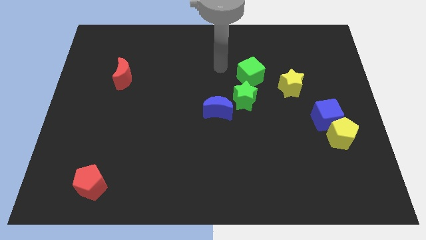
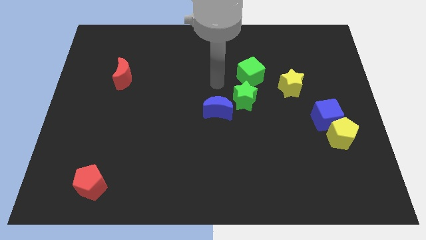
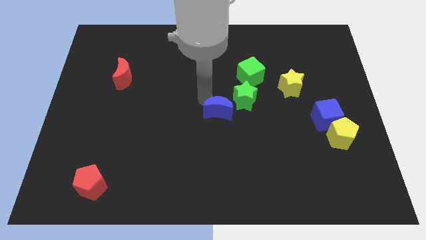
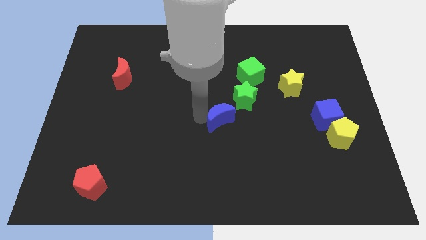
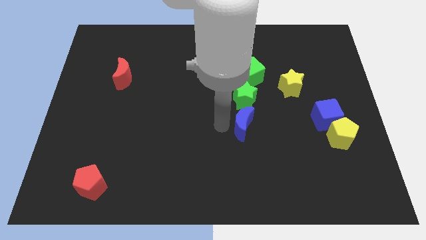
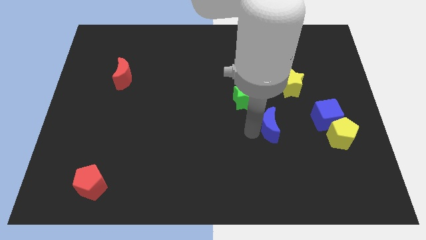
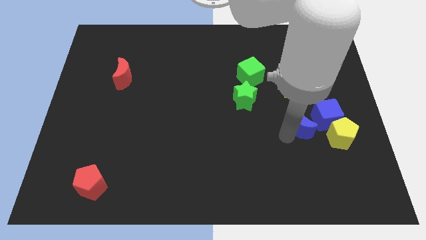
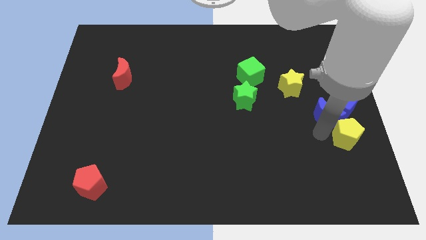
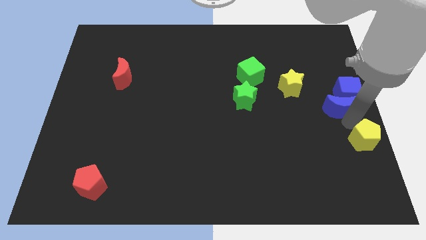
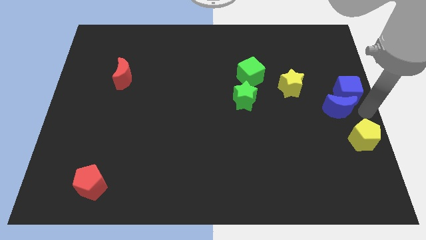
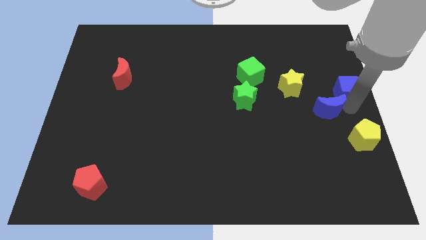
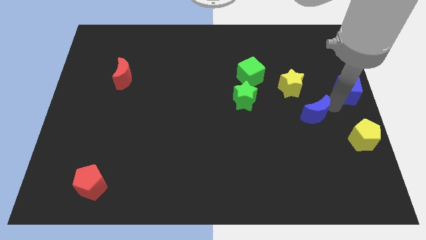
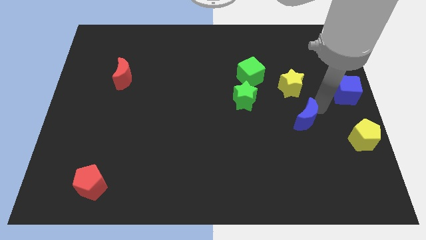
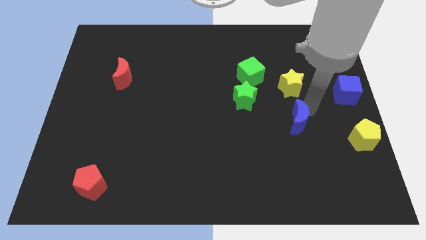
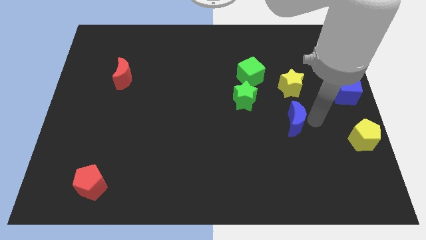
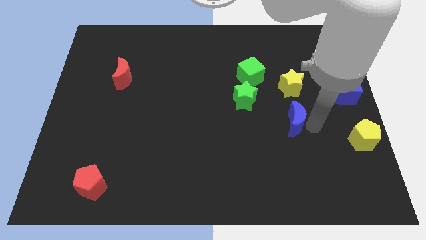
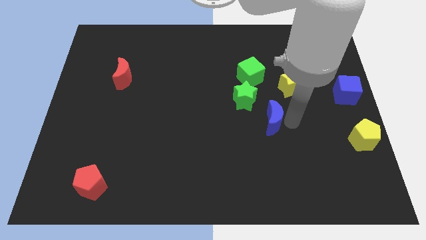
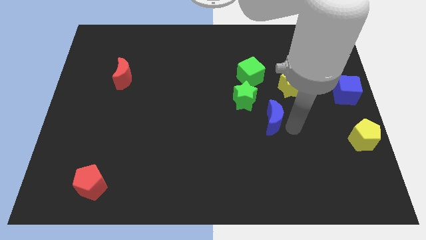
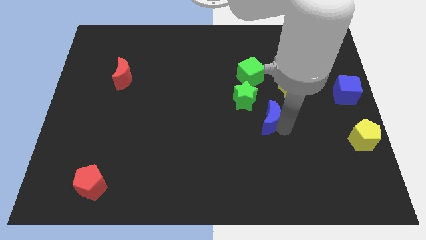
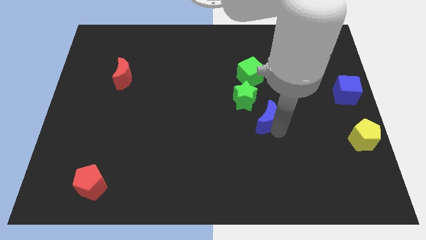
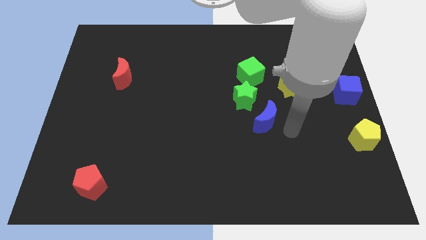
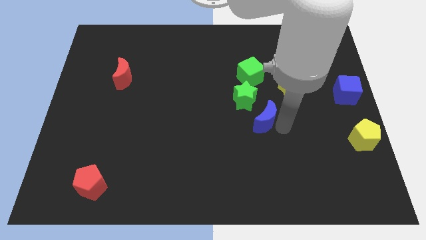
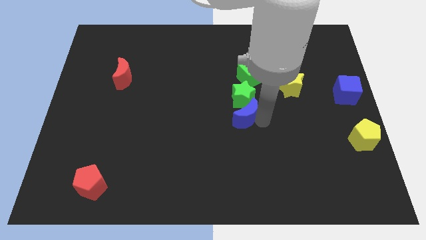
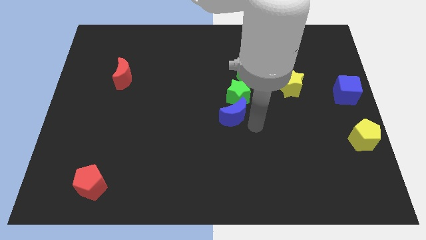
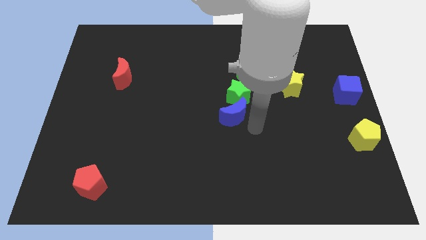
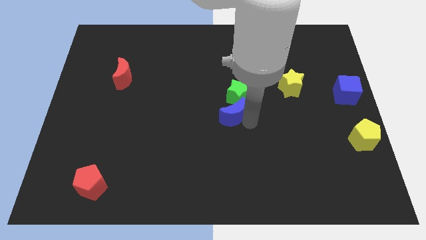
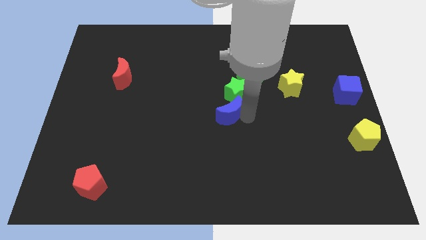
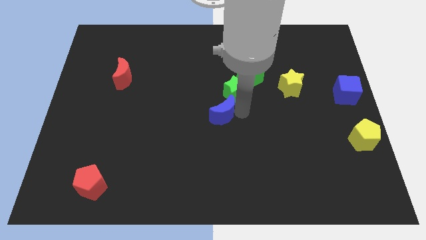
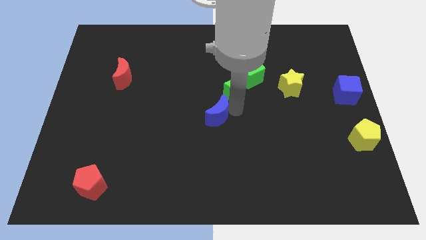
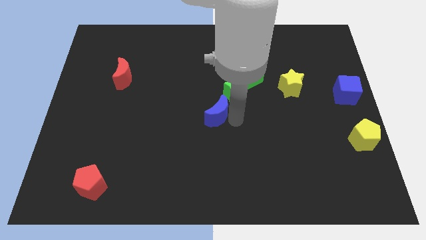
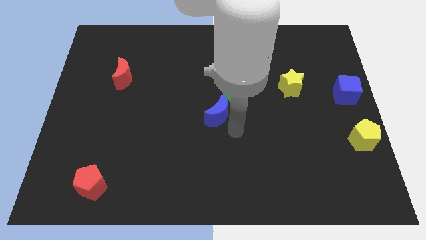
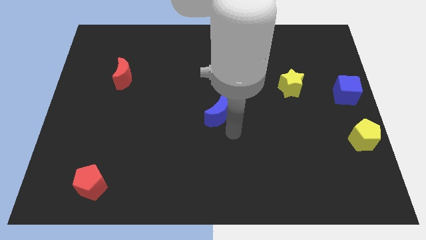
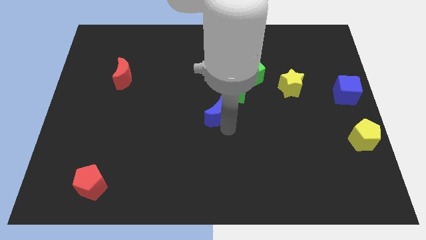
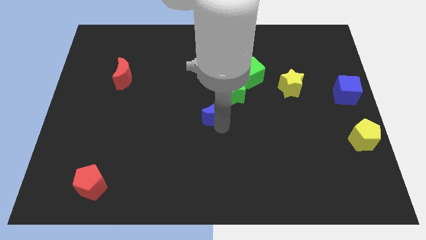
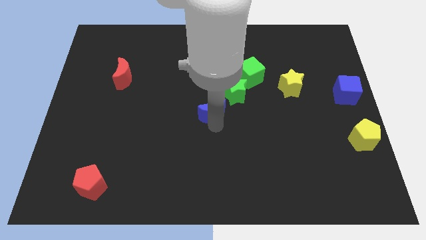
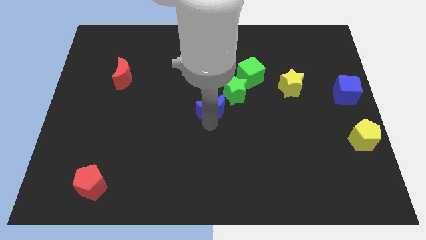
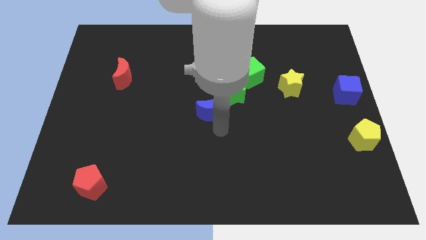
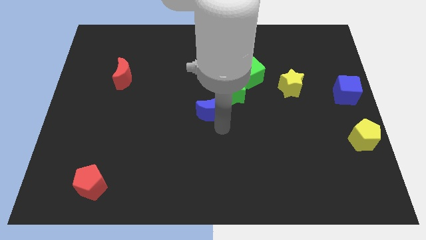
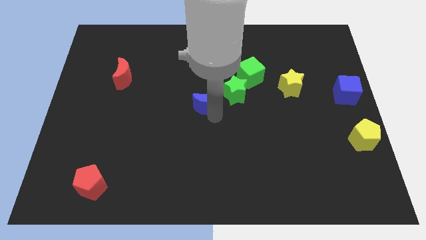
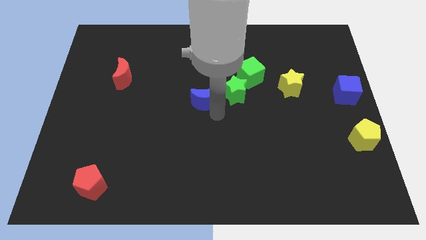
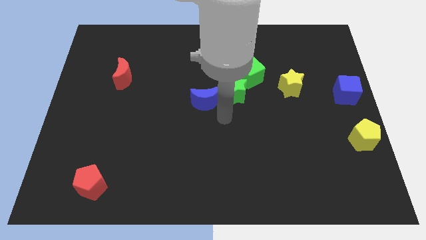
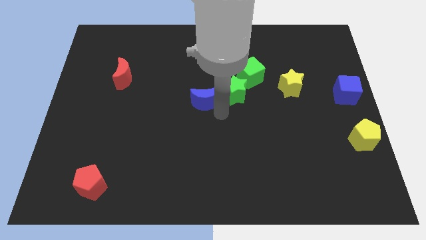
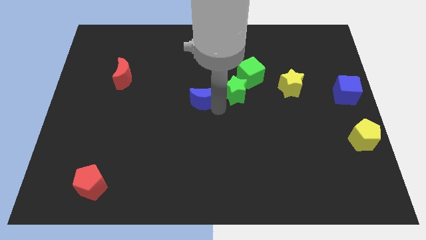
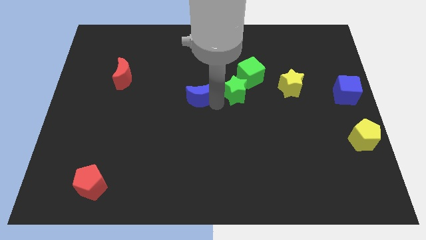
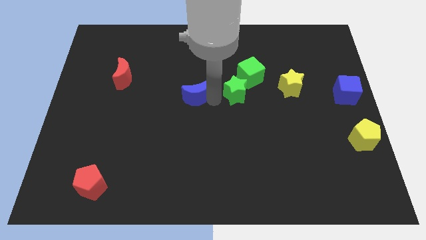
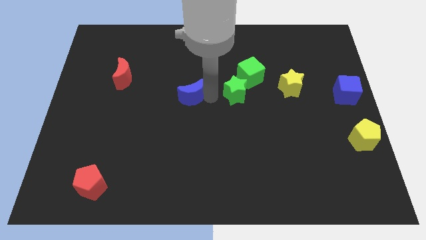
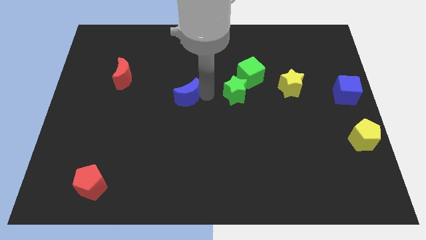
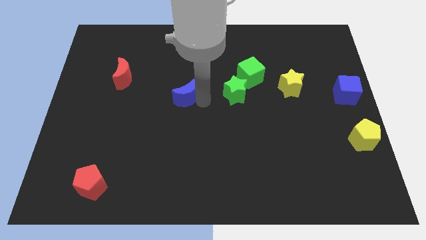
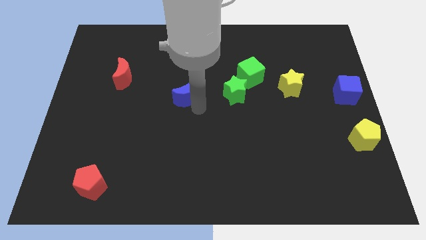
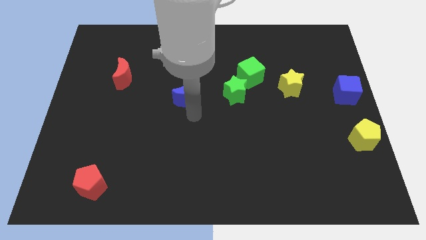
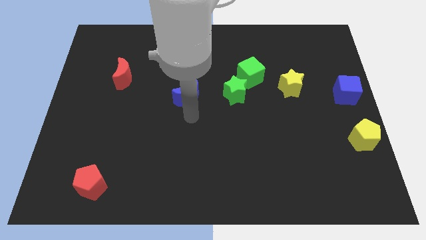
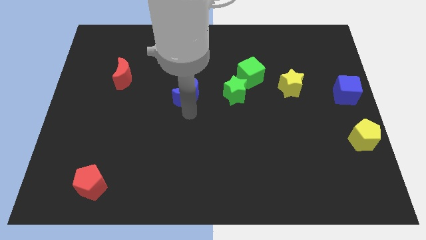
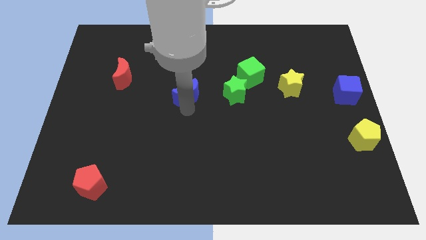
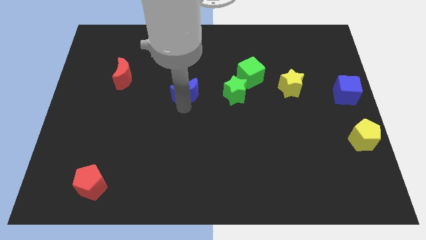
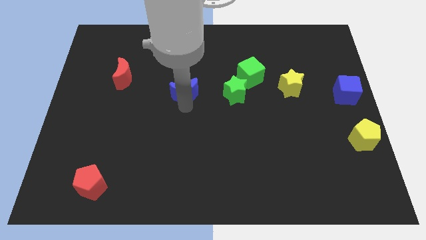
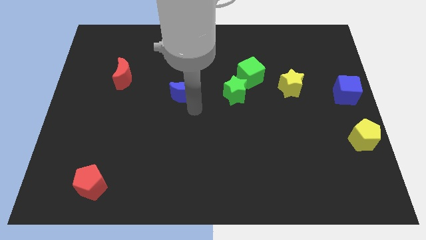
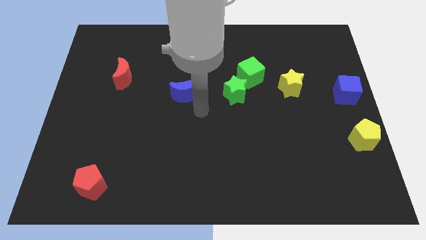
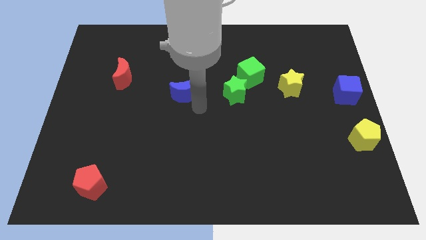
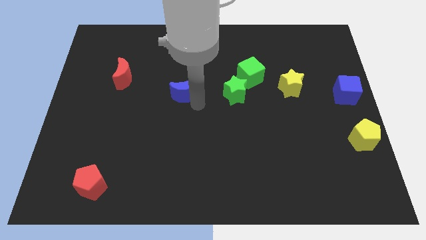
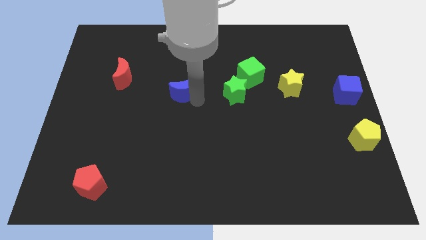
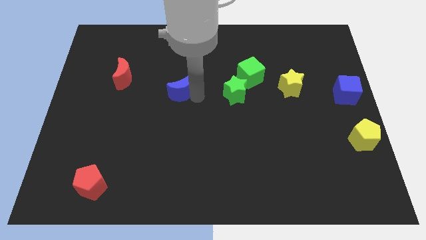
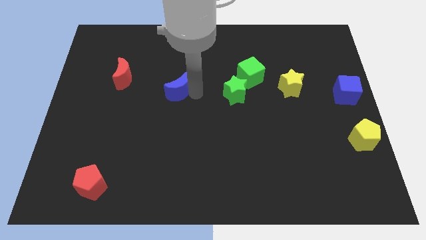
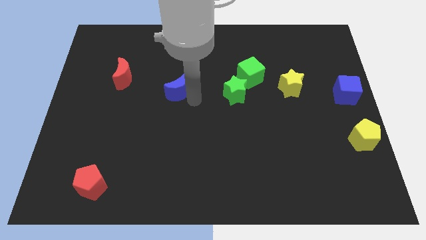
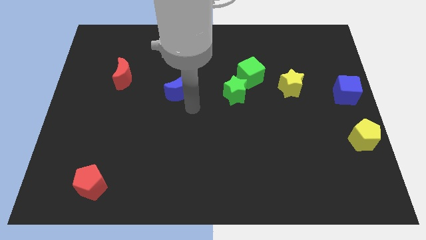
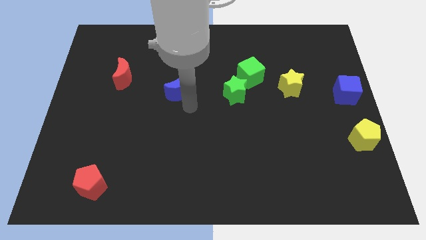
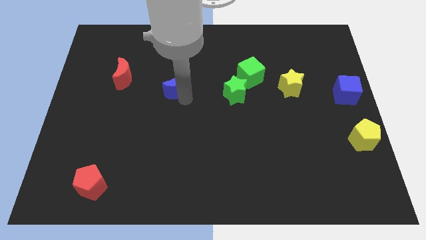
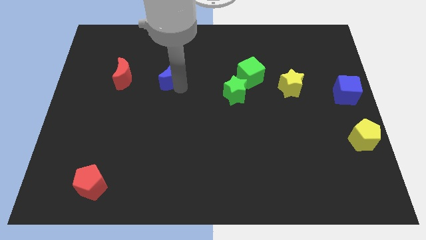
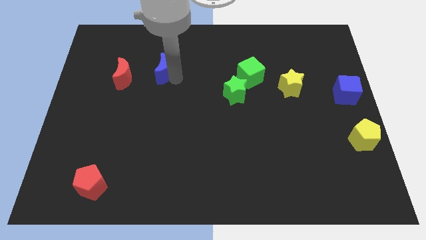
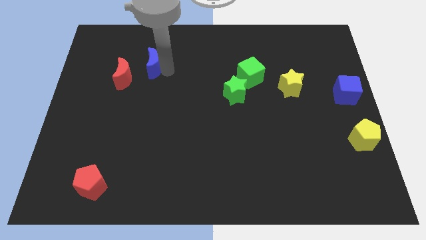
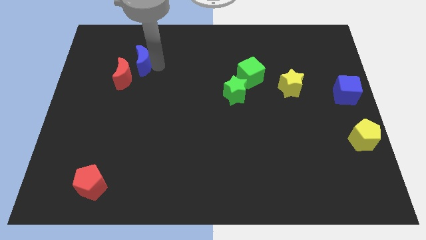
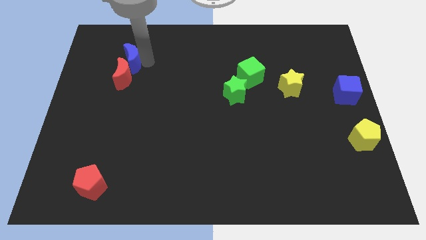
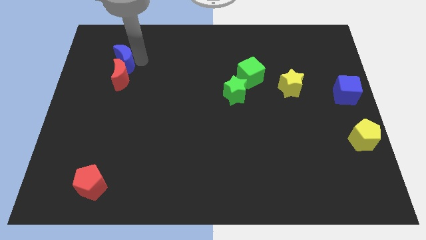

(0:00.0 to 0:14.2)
slide the blue moon diagonally up and to the left of the red moon
